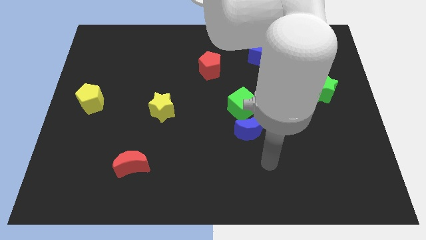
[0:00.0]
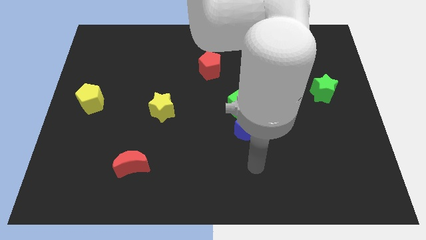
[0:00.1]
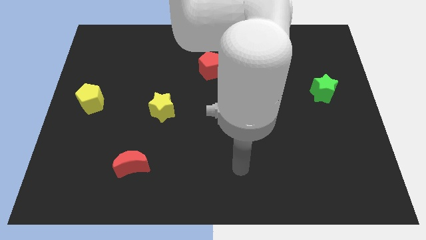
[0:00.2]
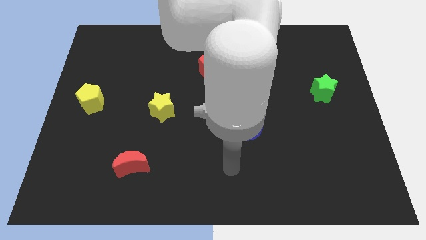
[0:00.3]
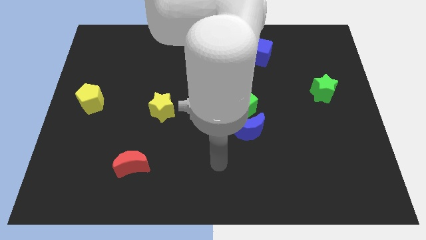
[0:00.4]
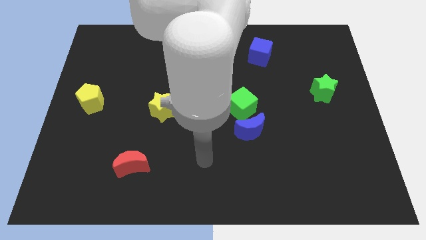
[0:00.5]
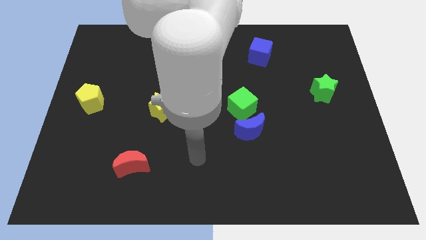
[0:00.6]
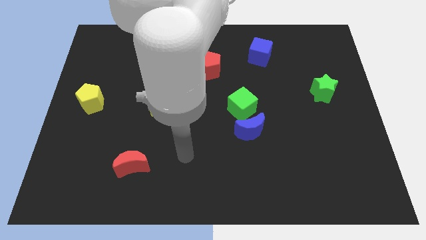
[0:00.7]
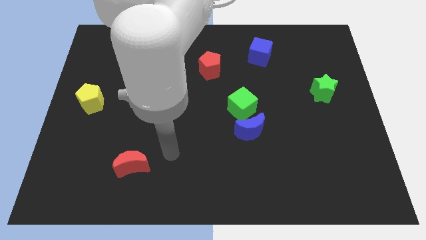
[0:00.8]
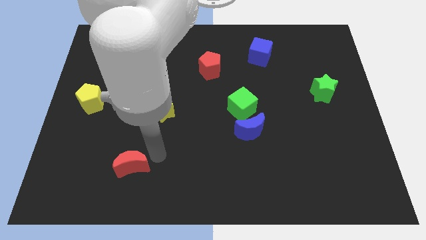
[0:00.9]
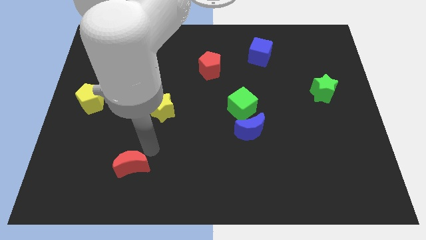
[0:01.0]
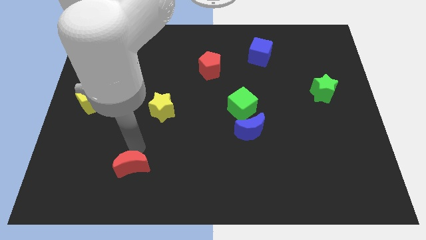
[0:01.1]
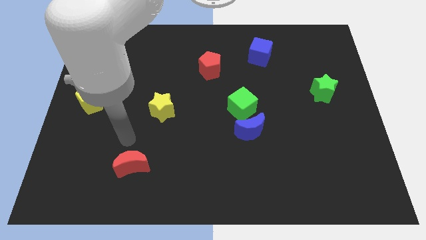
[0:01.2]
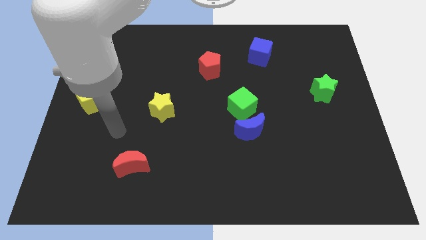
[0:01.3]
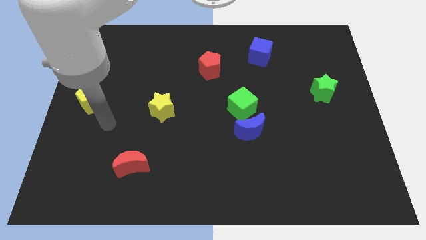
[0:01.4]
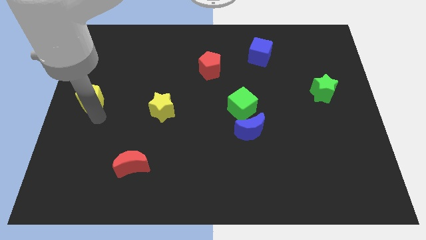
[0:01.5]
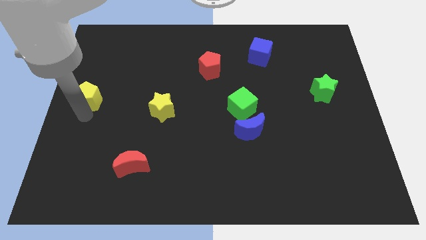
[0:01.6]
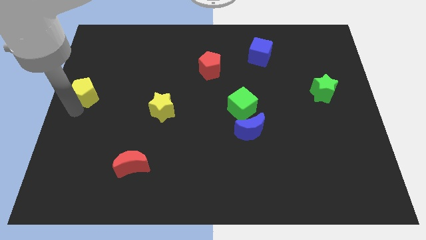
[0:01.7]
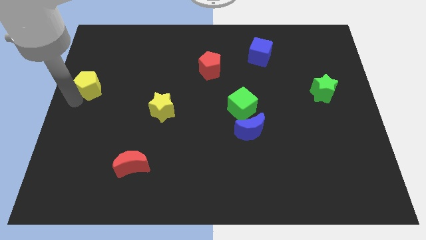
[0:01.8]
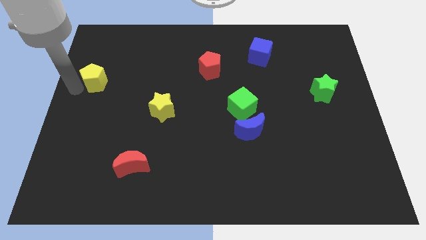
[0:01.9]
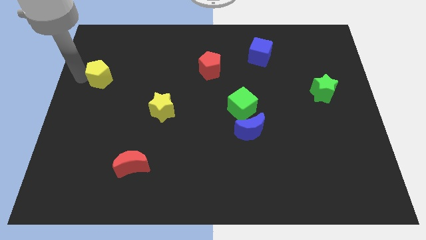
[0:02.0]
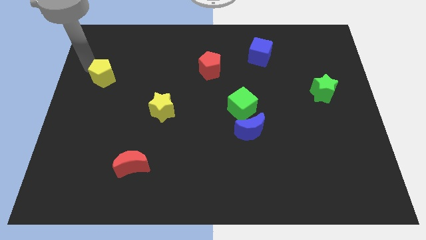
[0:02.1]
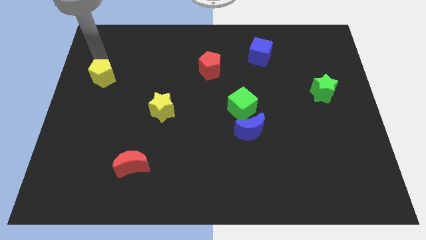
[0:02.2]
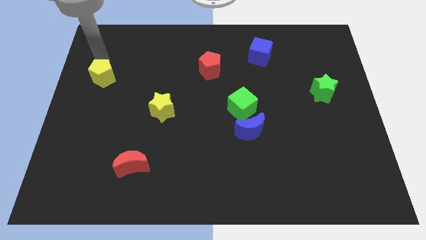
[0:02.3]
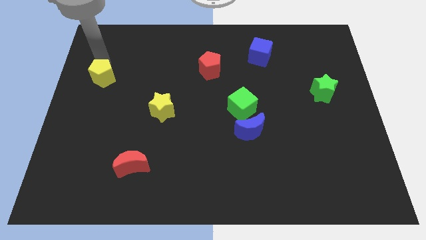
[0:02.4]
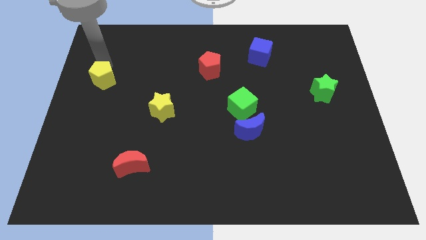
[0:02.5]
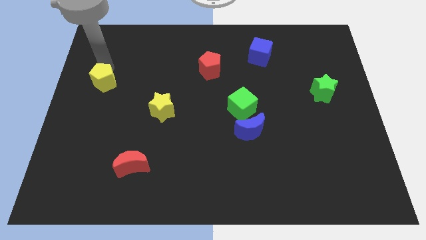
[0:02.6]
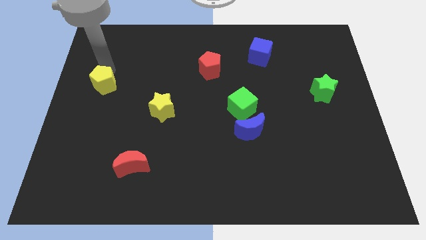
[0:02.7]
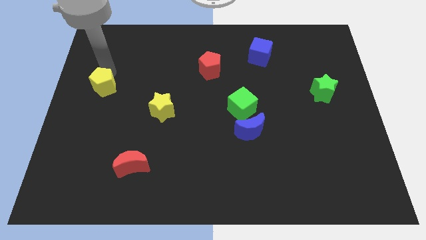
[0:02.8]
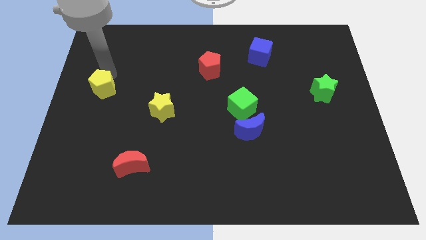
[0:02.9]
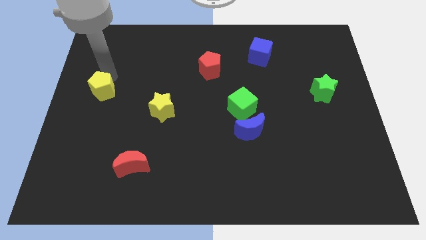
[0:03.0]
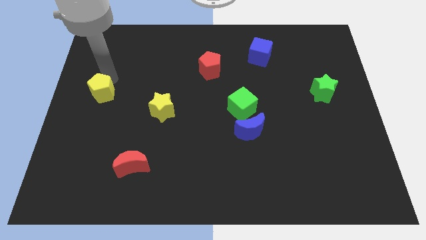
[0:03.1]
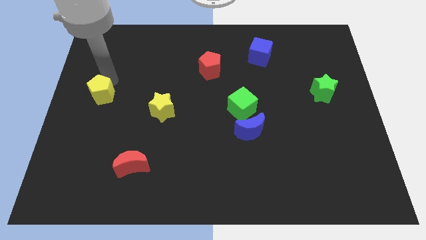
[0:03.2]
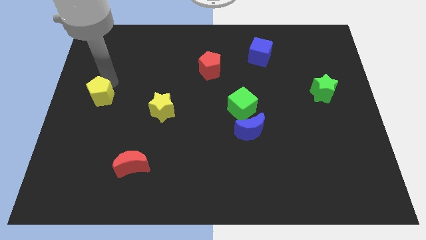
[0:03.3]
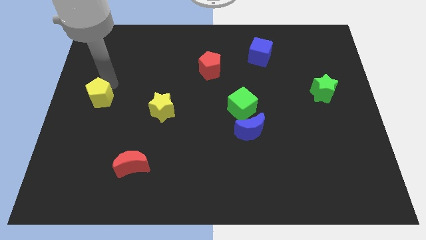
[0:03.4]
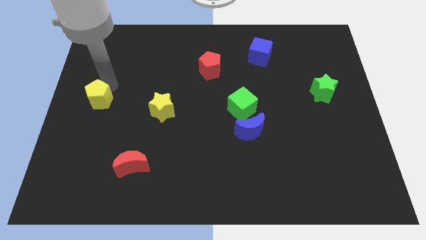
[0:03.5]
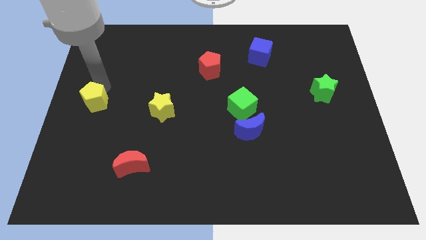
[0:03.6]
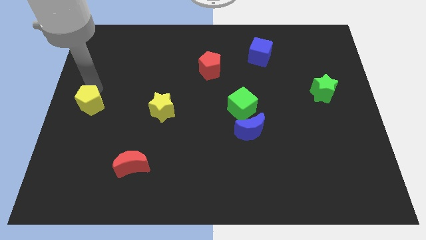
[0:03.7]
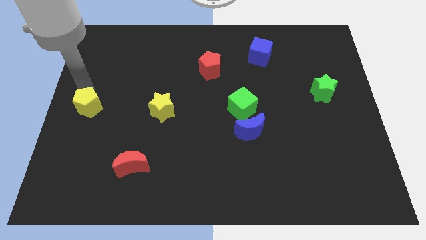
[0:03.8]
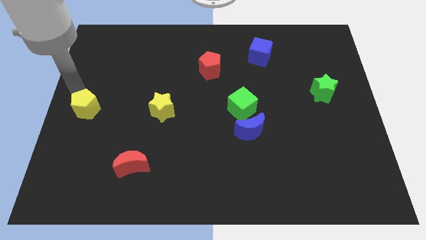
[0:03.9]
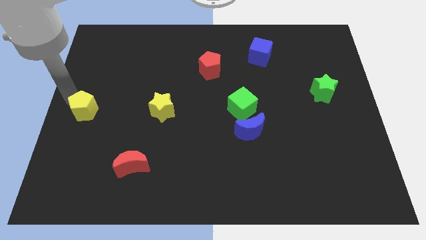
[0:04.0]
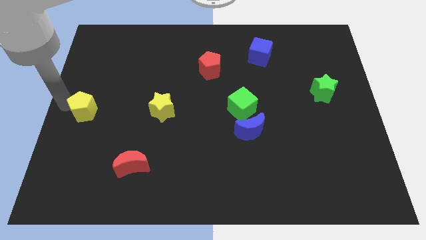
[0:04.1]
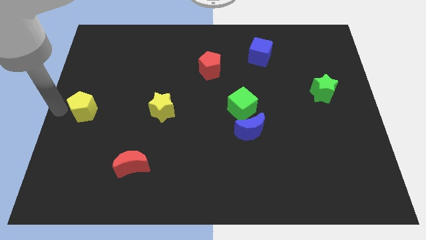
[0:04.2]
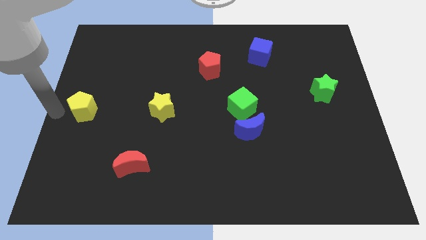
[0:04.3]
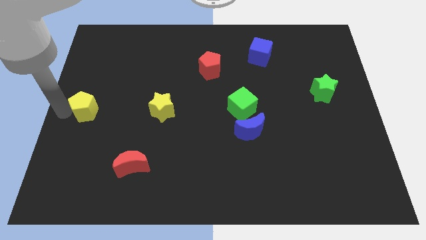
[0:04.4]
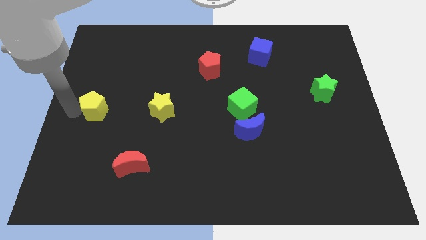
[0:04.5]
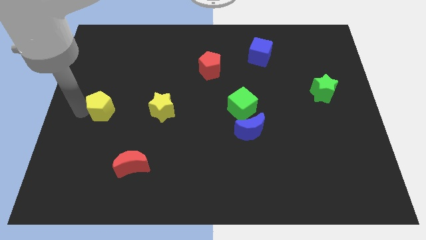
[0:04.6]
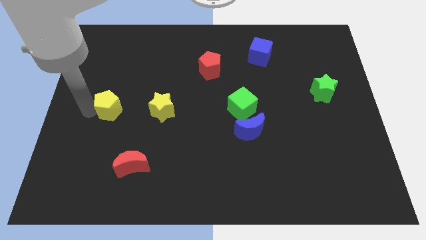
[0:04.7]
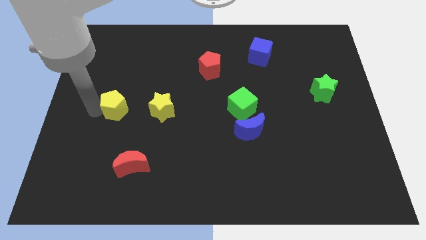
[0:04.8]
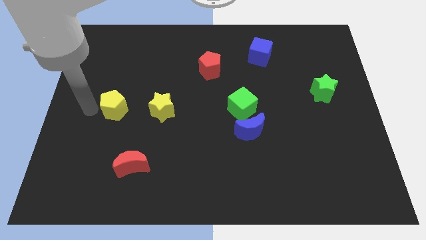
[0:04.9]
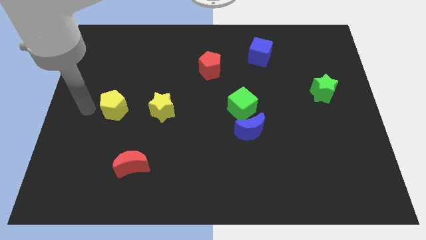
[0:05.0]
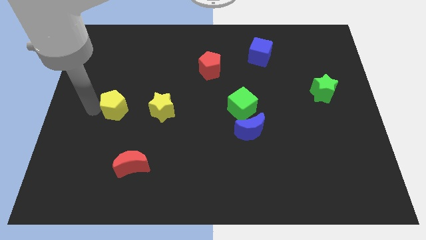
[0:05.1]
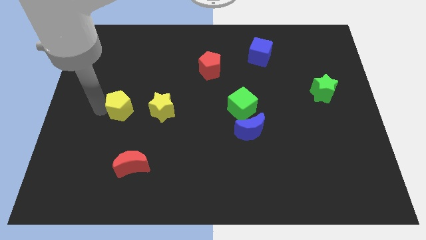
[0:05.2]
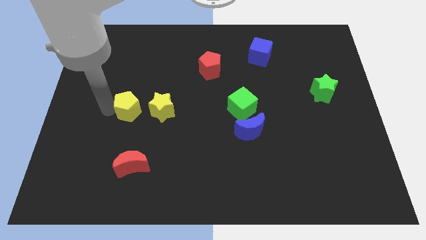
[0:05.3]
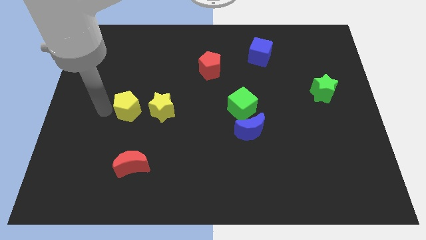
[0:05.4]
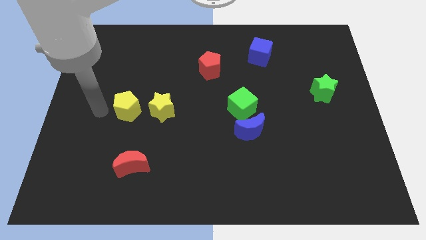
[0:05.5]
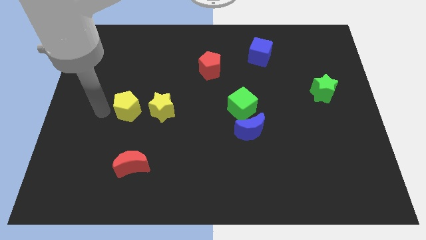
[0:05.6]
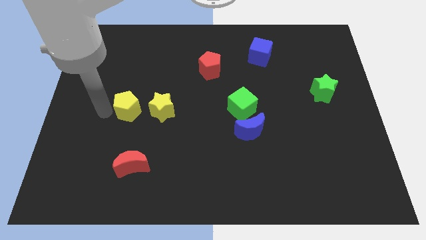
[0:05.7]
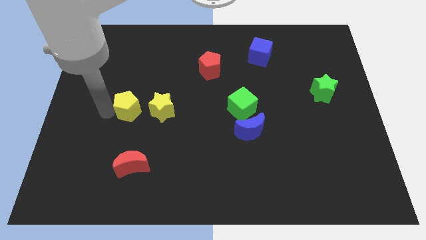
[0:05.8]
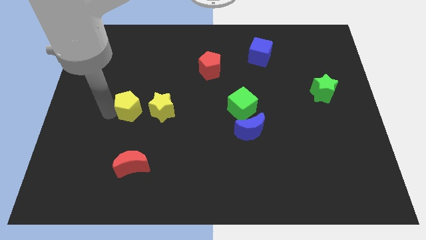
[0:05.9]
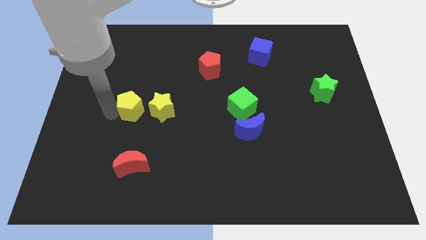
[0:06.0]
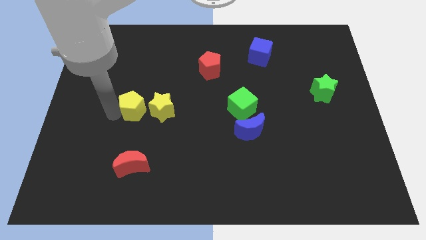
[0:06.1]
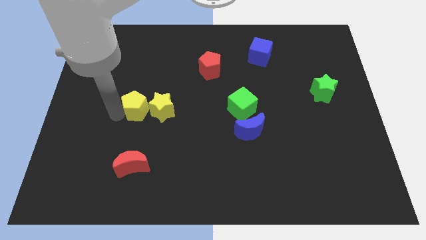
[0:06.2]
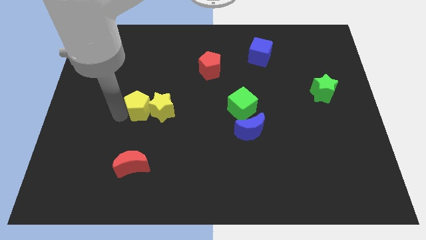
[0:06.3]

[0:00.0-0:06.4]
push the yellow pentagon to the yellow star

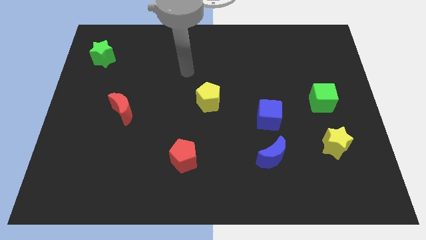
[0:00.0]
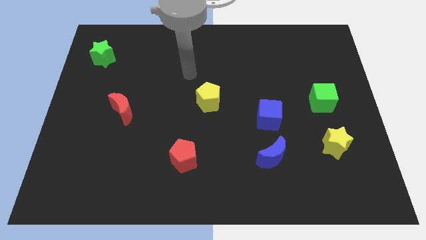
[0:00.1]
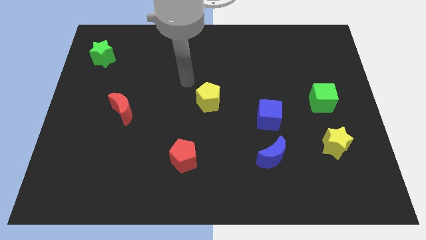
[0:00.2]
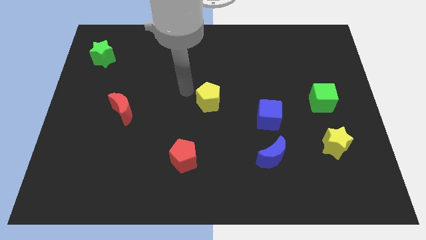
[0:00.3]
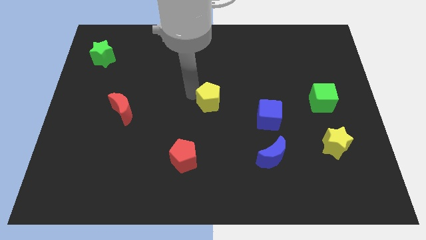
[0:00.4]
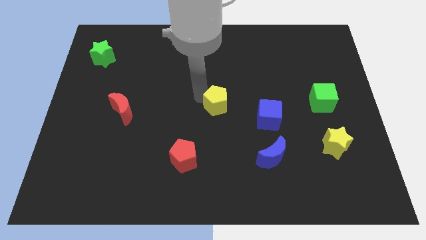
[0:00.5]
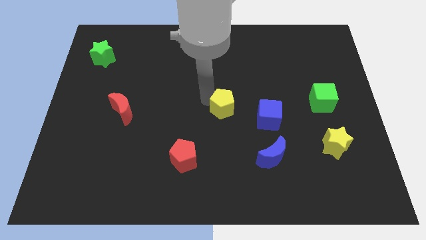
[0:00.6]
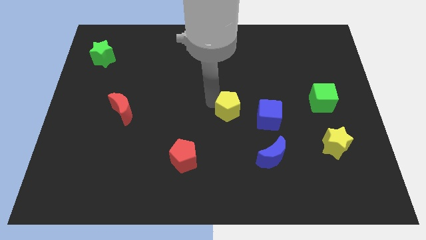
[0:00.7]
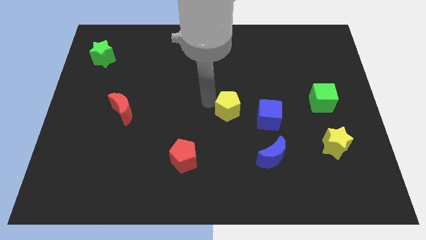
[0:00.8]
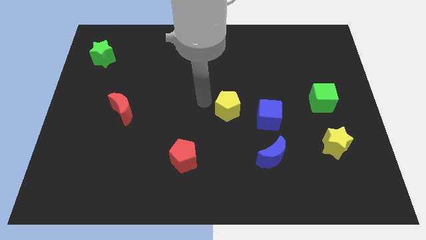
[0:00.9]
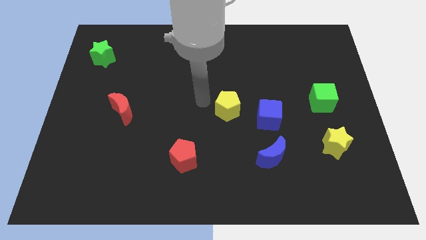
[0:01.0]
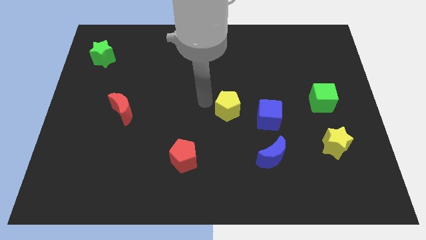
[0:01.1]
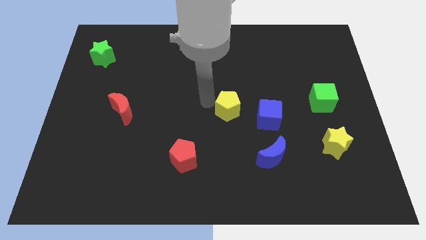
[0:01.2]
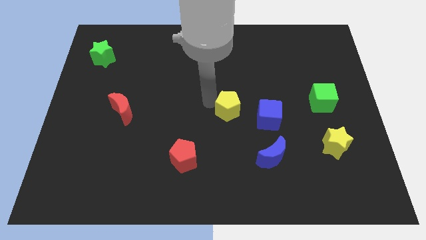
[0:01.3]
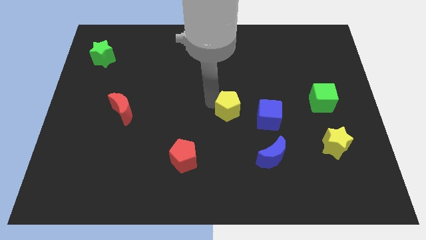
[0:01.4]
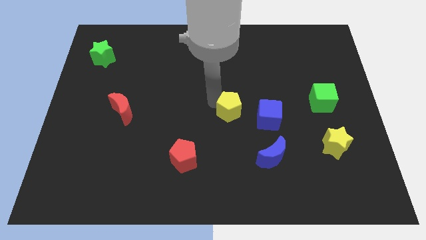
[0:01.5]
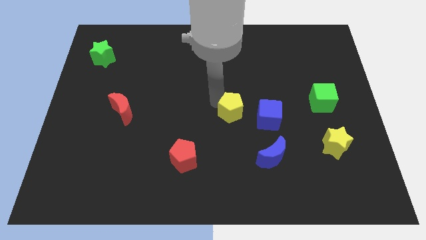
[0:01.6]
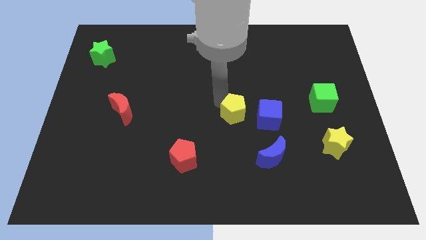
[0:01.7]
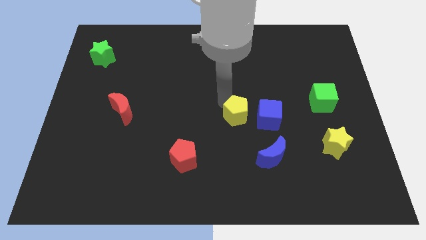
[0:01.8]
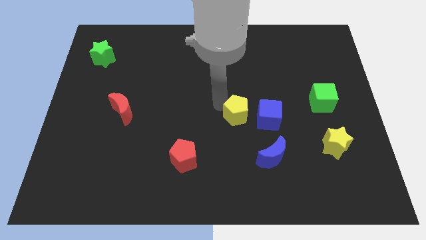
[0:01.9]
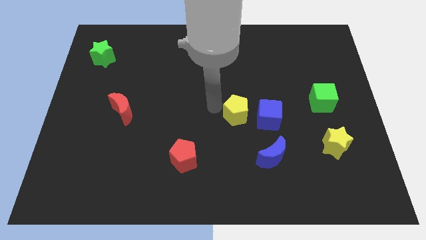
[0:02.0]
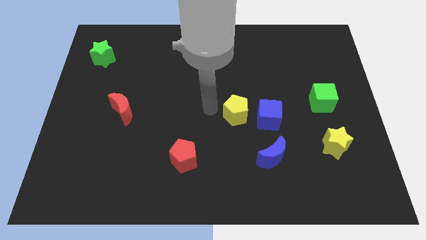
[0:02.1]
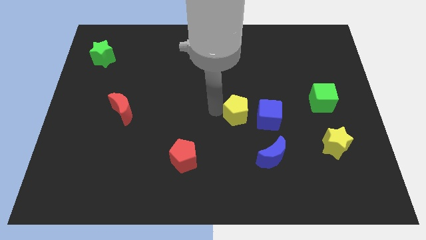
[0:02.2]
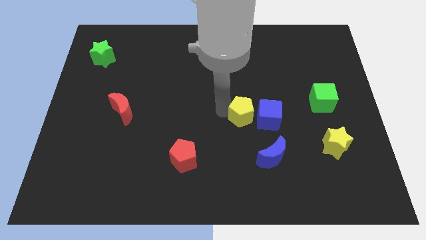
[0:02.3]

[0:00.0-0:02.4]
push the yellow pentagon next to the blue cube
